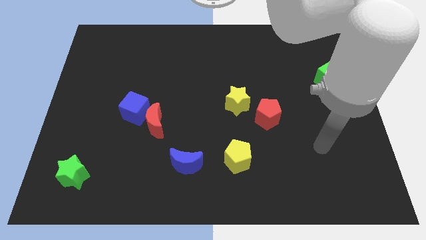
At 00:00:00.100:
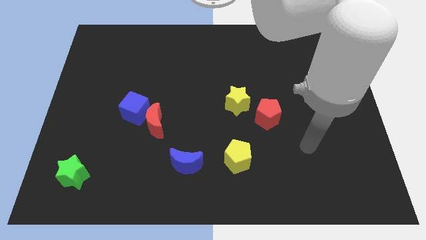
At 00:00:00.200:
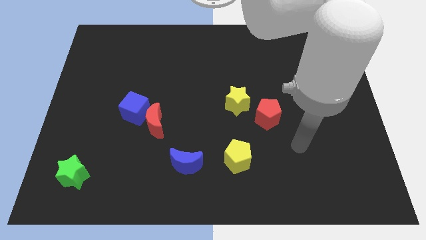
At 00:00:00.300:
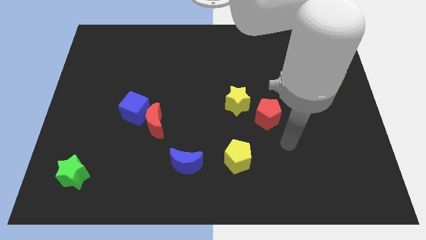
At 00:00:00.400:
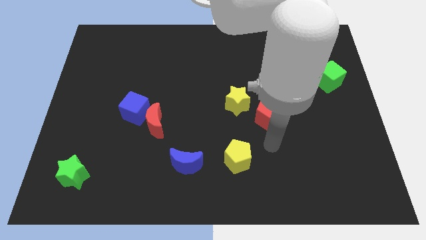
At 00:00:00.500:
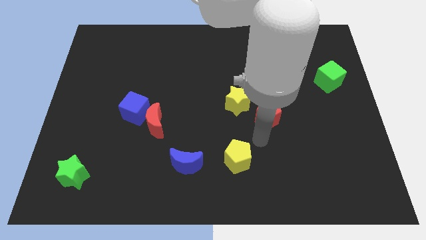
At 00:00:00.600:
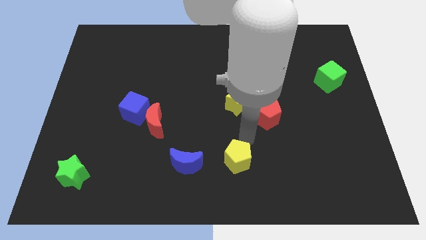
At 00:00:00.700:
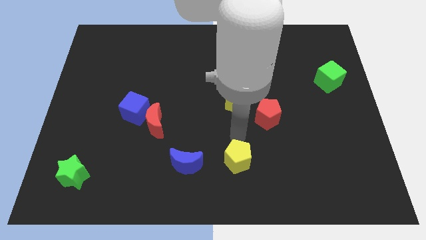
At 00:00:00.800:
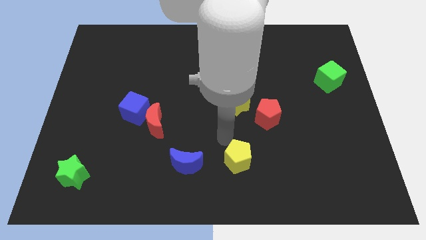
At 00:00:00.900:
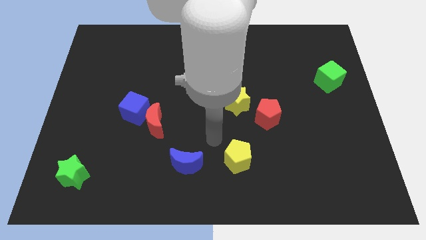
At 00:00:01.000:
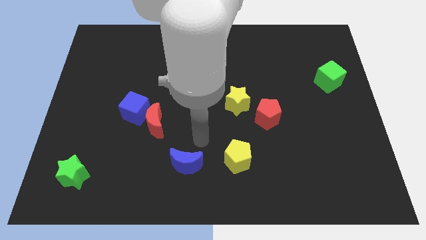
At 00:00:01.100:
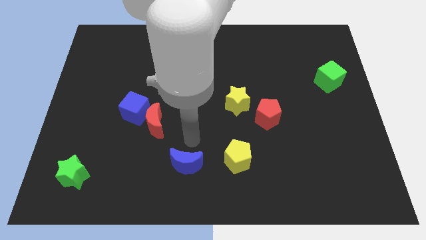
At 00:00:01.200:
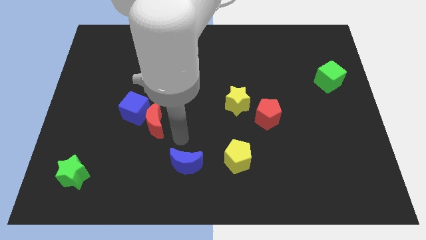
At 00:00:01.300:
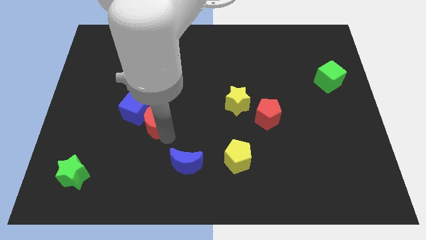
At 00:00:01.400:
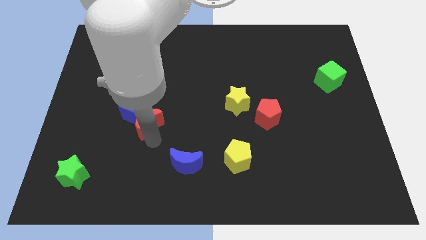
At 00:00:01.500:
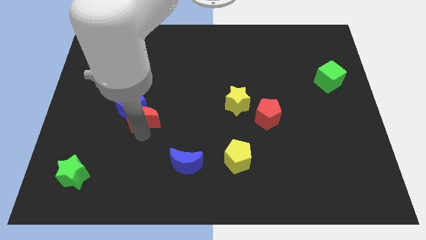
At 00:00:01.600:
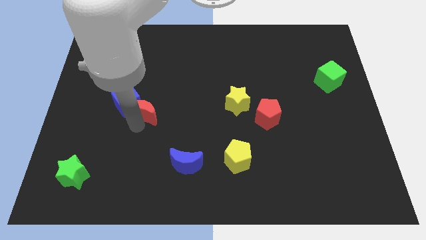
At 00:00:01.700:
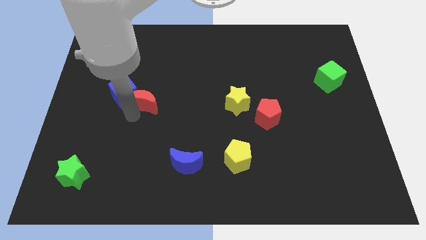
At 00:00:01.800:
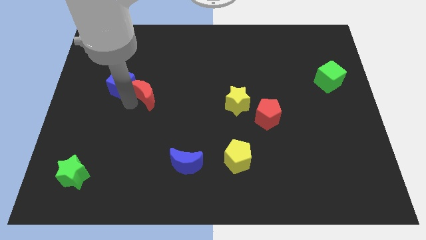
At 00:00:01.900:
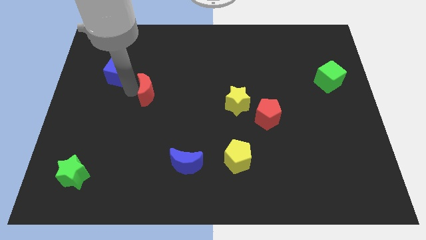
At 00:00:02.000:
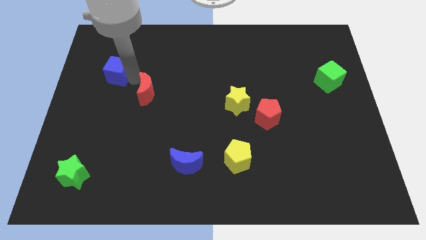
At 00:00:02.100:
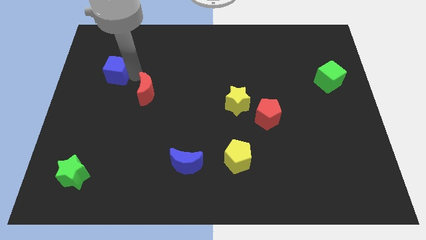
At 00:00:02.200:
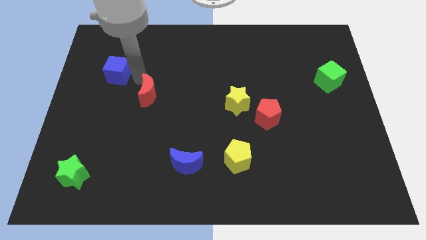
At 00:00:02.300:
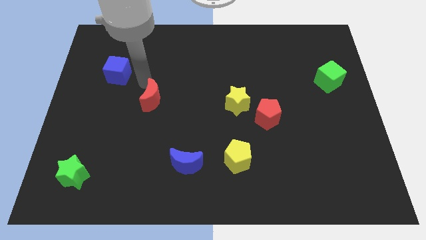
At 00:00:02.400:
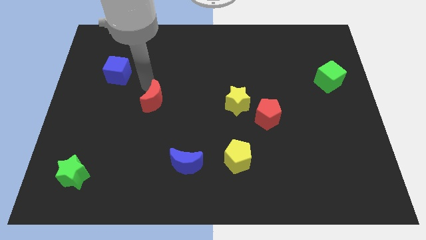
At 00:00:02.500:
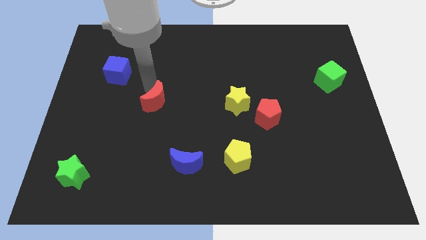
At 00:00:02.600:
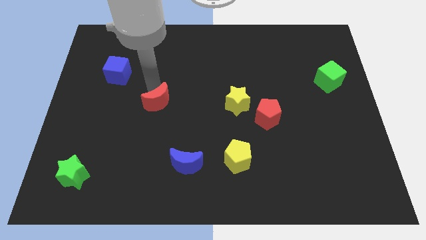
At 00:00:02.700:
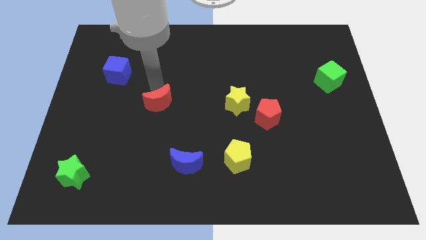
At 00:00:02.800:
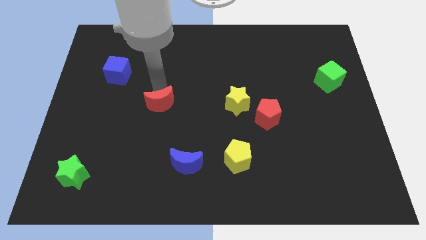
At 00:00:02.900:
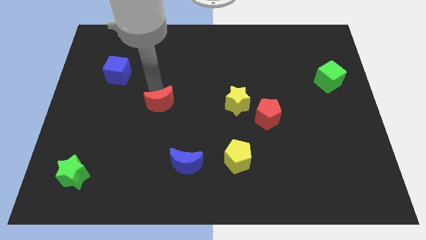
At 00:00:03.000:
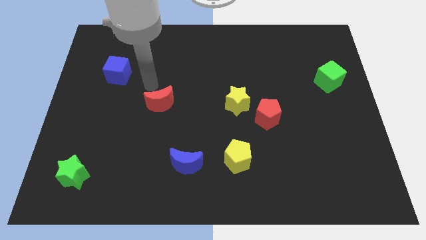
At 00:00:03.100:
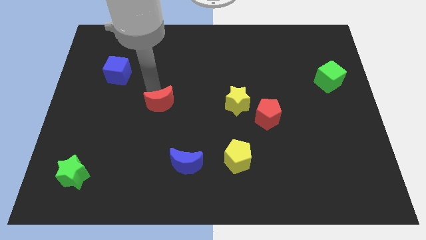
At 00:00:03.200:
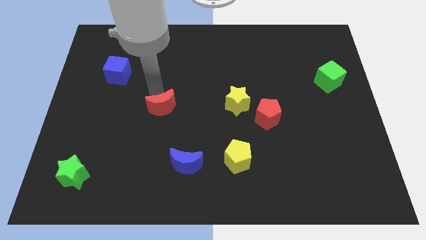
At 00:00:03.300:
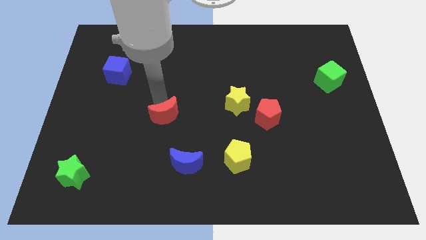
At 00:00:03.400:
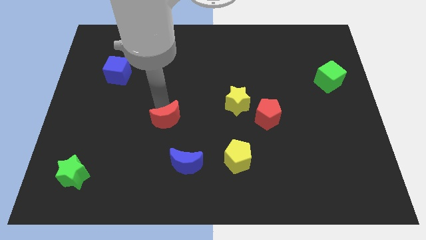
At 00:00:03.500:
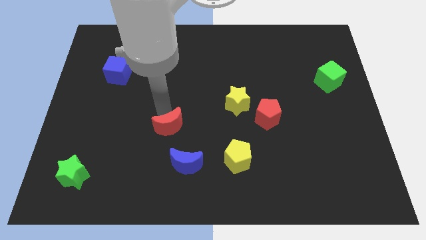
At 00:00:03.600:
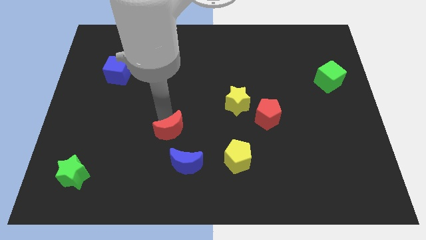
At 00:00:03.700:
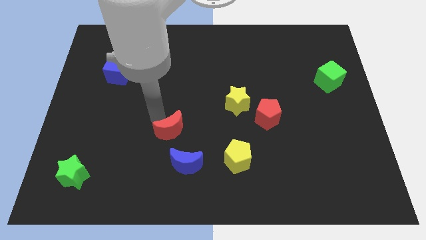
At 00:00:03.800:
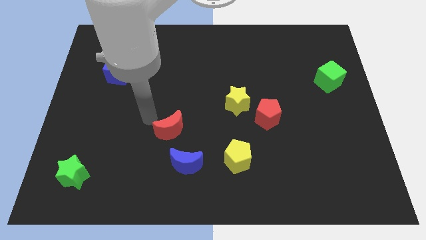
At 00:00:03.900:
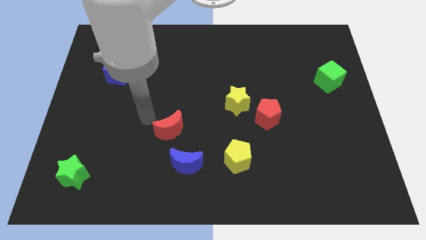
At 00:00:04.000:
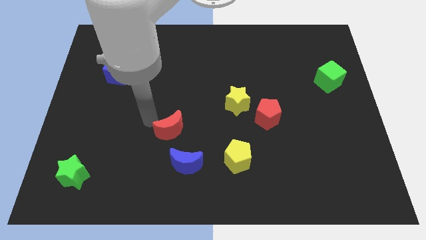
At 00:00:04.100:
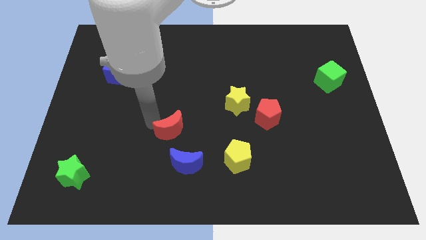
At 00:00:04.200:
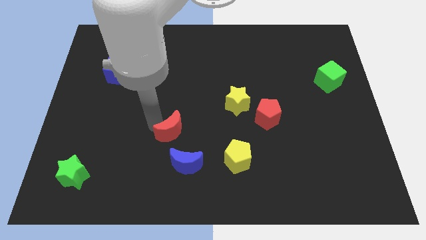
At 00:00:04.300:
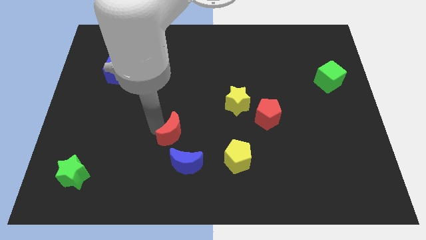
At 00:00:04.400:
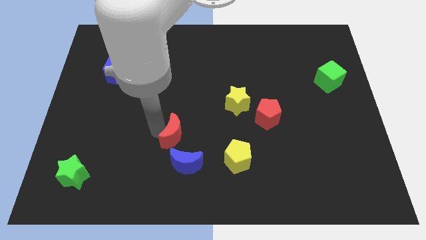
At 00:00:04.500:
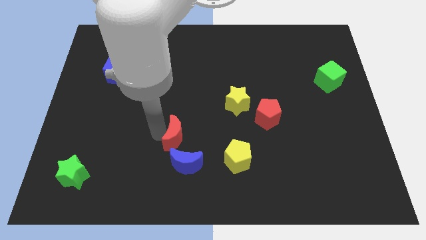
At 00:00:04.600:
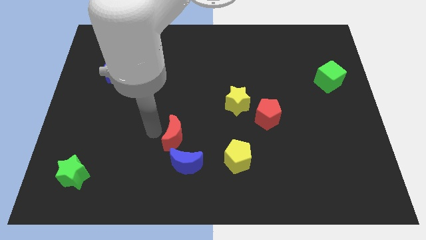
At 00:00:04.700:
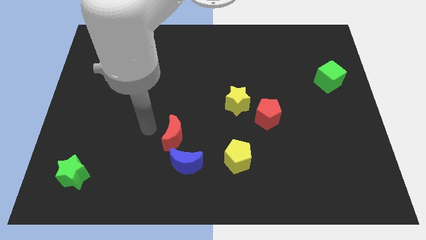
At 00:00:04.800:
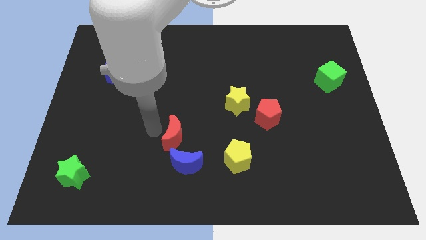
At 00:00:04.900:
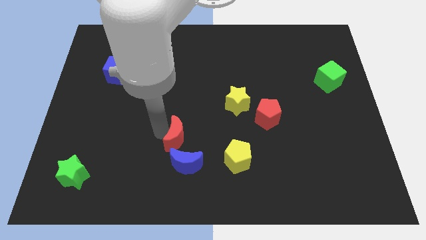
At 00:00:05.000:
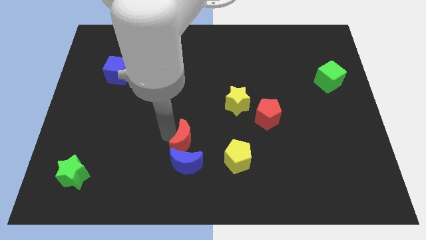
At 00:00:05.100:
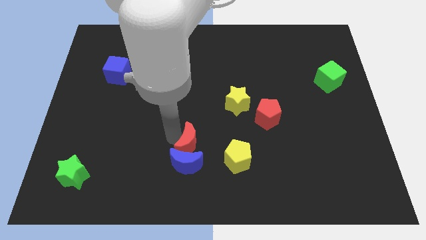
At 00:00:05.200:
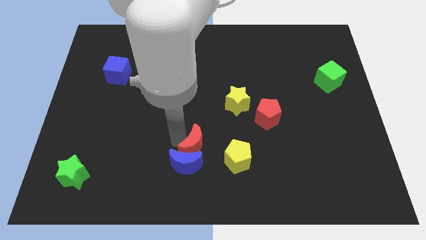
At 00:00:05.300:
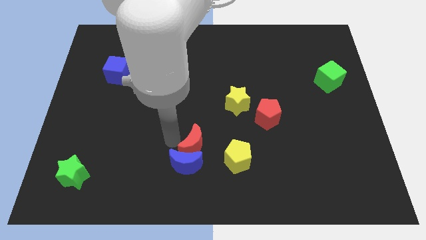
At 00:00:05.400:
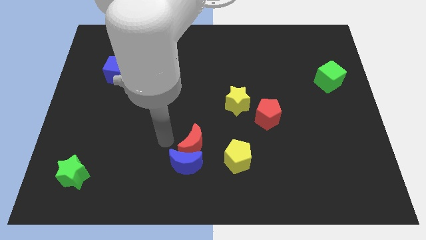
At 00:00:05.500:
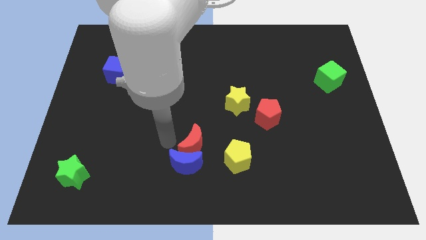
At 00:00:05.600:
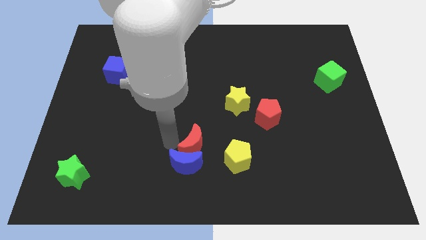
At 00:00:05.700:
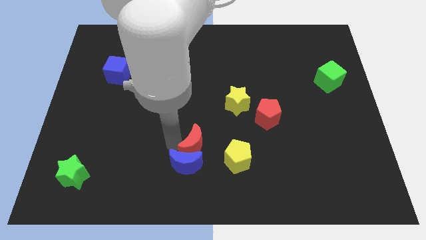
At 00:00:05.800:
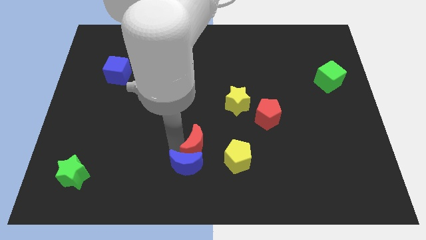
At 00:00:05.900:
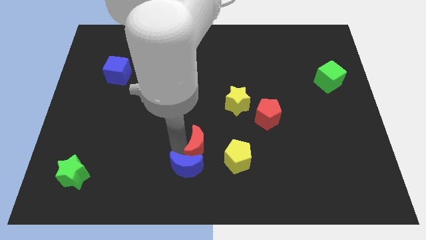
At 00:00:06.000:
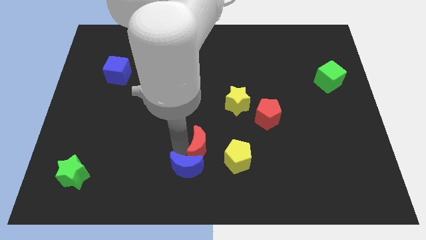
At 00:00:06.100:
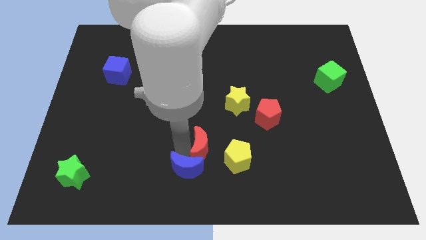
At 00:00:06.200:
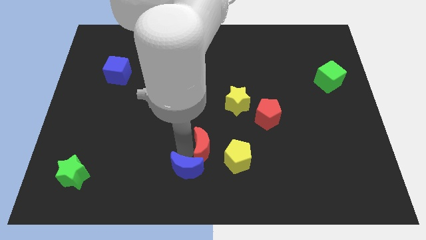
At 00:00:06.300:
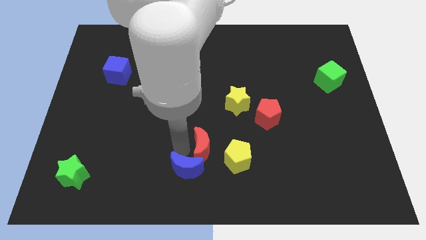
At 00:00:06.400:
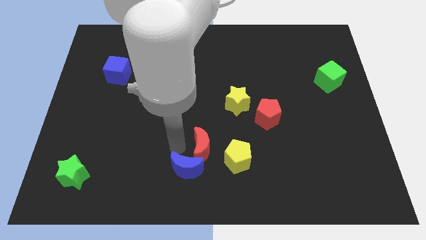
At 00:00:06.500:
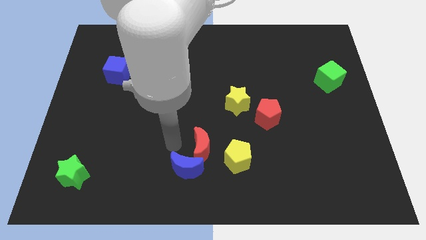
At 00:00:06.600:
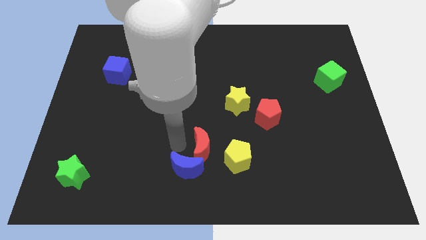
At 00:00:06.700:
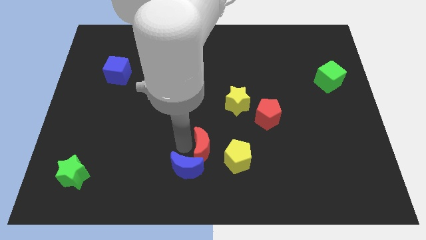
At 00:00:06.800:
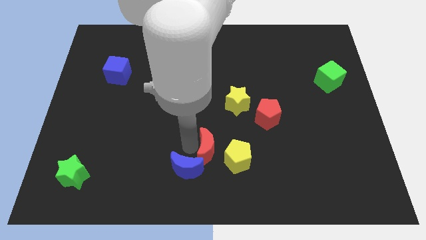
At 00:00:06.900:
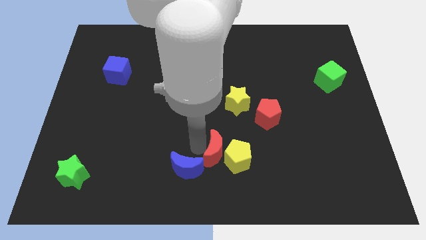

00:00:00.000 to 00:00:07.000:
move the red moon next to the yellow pentagon
